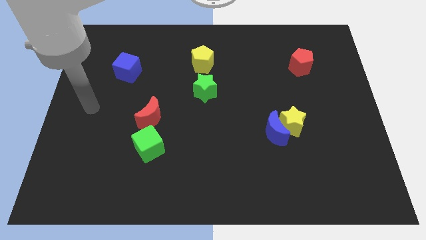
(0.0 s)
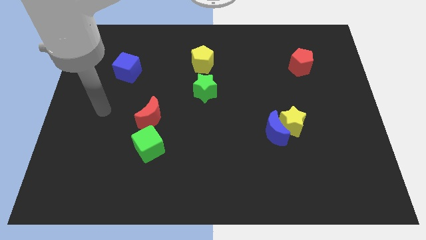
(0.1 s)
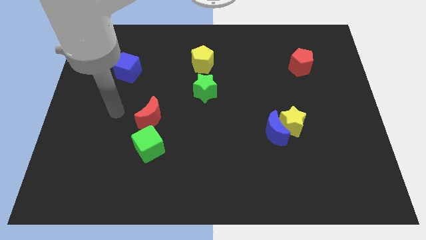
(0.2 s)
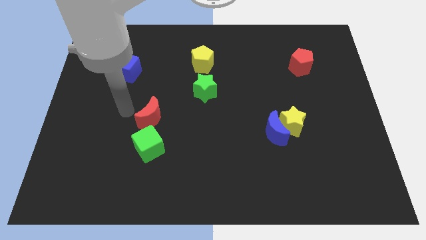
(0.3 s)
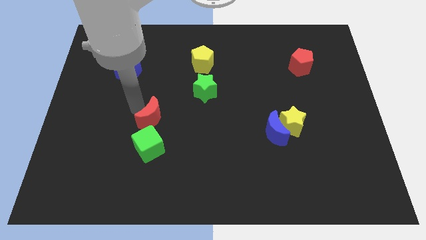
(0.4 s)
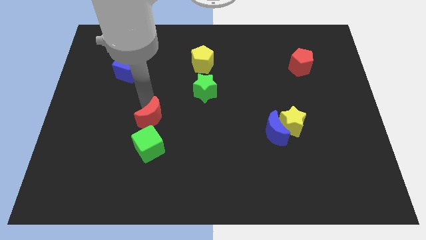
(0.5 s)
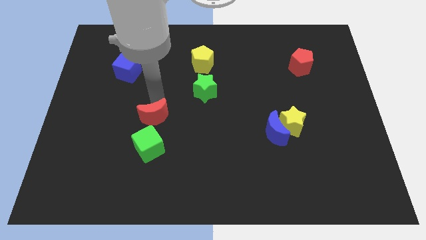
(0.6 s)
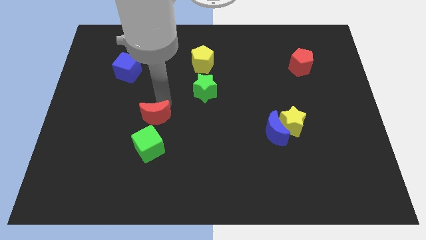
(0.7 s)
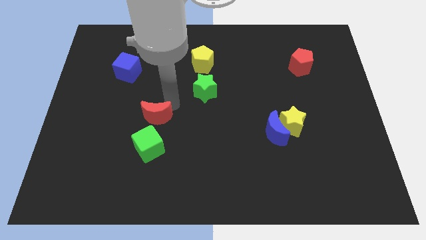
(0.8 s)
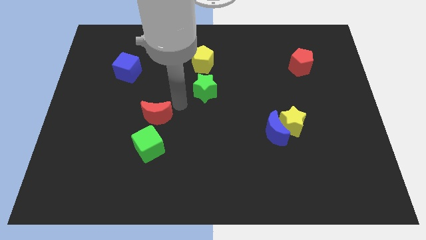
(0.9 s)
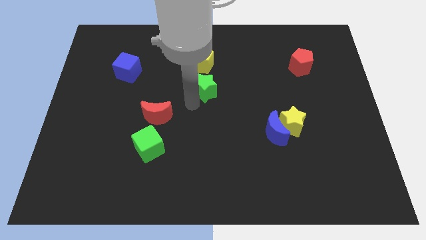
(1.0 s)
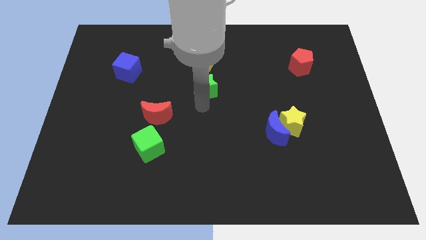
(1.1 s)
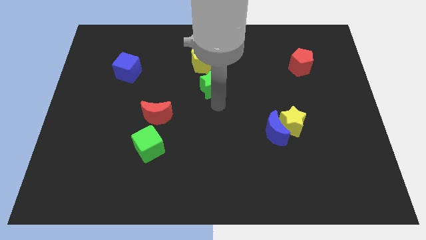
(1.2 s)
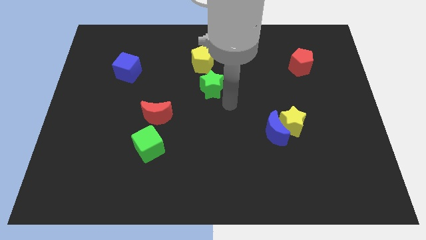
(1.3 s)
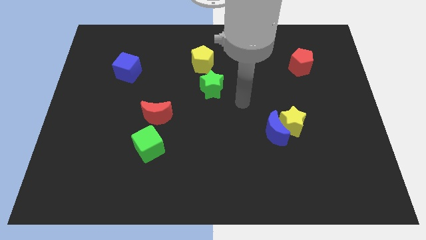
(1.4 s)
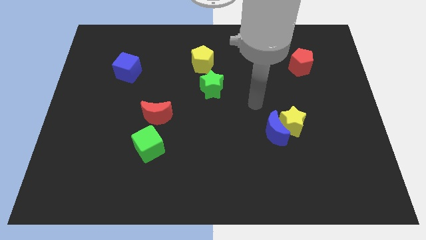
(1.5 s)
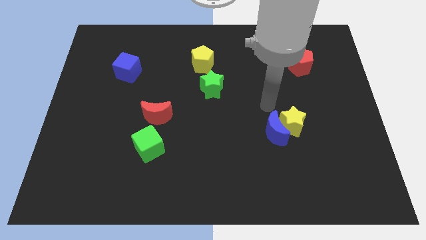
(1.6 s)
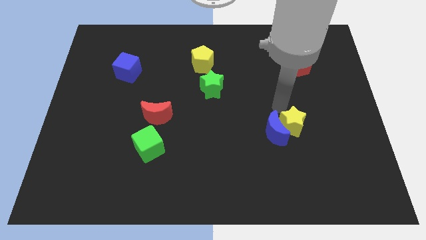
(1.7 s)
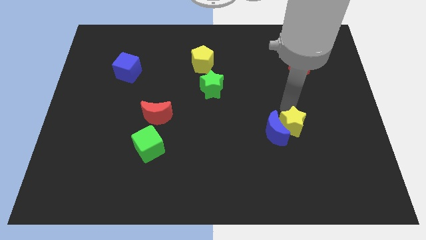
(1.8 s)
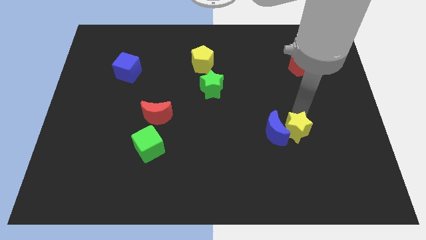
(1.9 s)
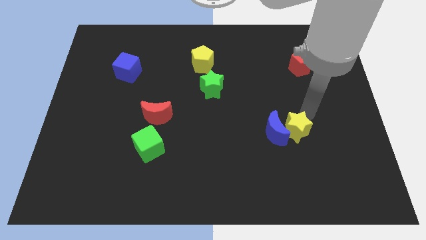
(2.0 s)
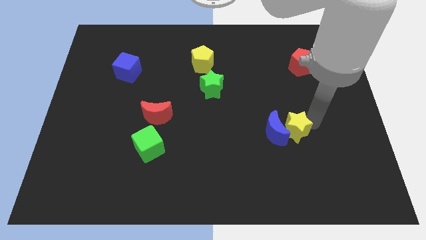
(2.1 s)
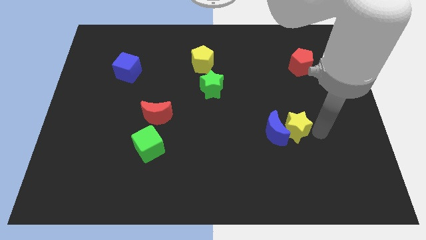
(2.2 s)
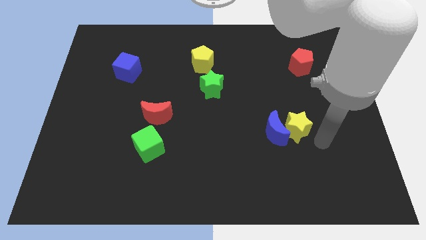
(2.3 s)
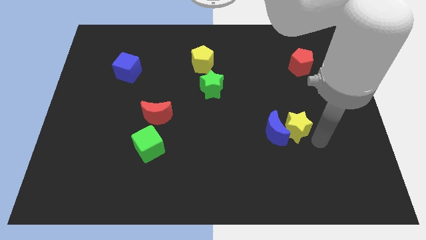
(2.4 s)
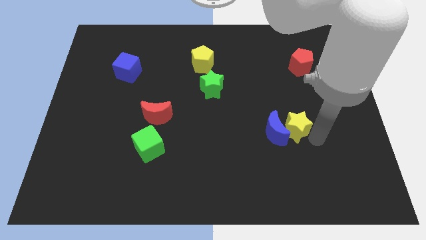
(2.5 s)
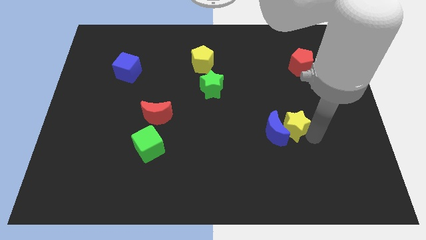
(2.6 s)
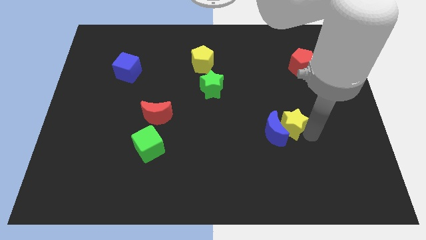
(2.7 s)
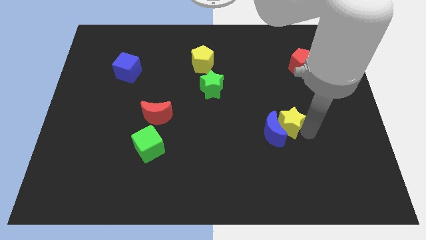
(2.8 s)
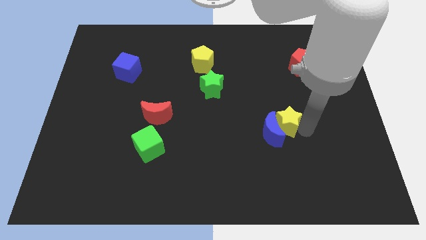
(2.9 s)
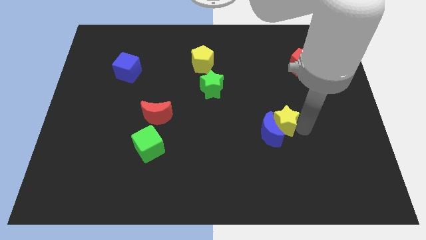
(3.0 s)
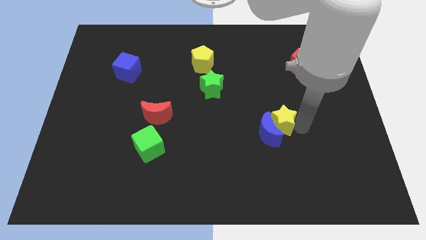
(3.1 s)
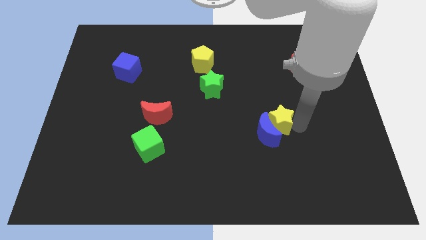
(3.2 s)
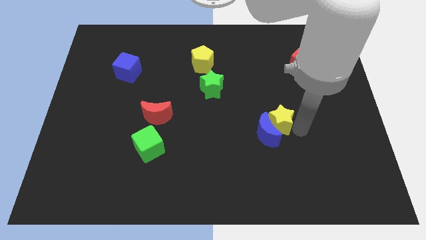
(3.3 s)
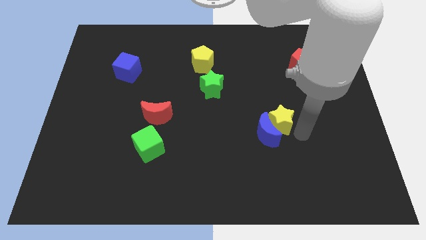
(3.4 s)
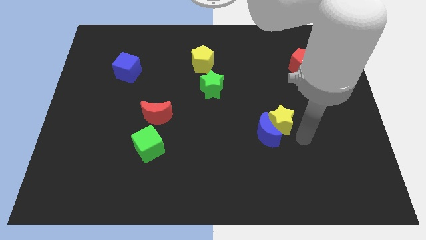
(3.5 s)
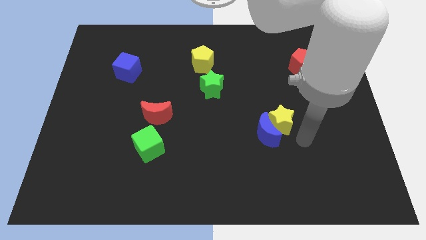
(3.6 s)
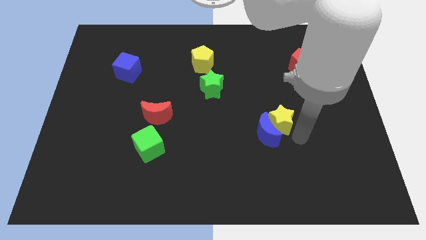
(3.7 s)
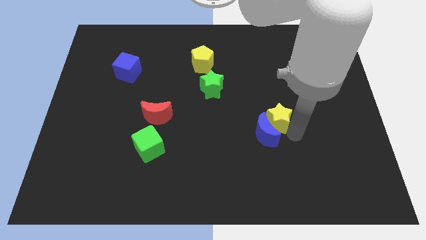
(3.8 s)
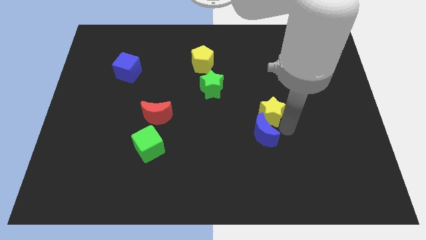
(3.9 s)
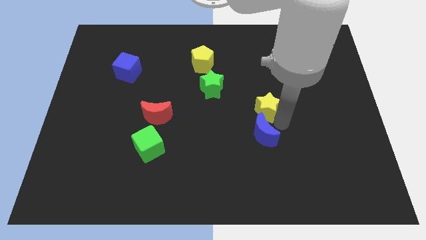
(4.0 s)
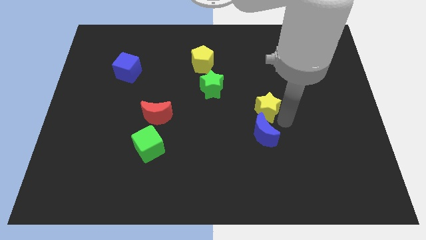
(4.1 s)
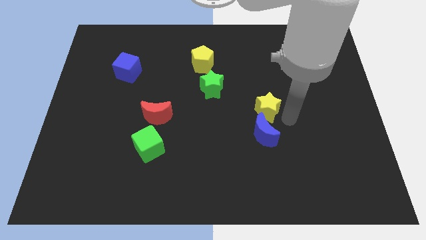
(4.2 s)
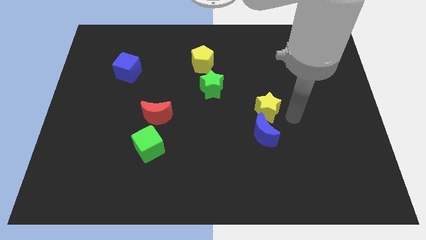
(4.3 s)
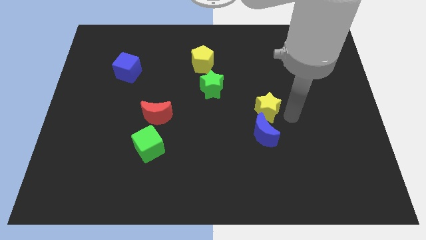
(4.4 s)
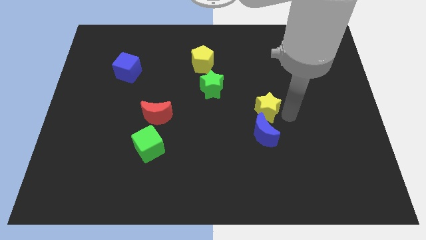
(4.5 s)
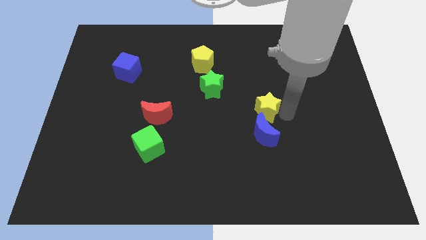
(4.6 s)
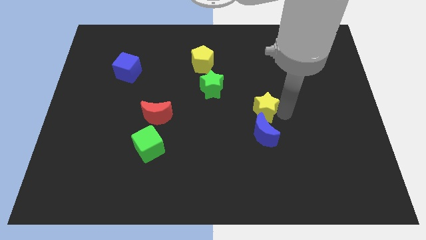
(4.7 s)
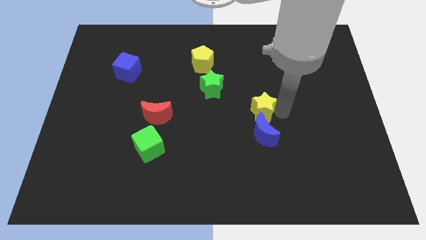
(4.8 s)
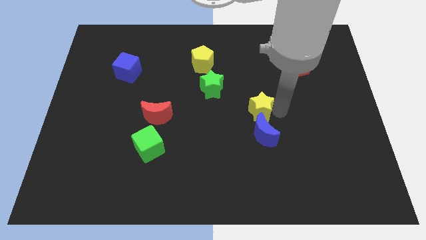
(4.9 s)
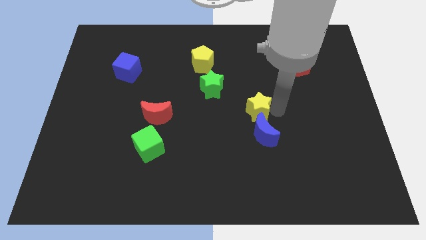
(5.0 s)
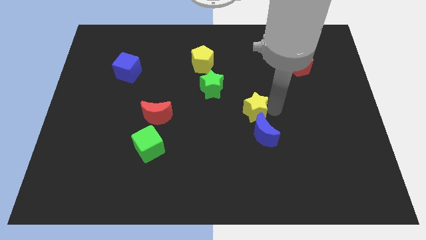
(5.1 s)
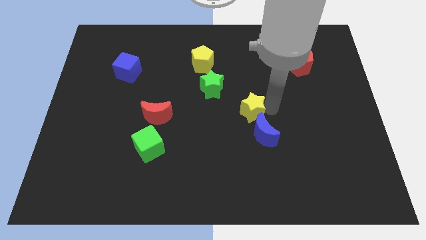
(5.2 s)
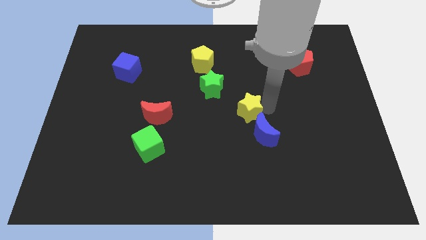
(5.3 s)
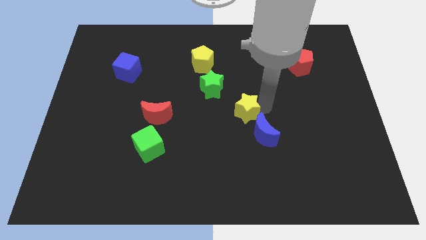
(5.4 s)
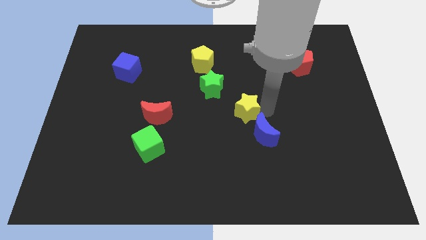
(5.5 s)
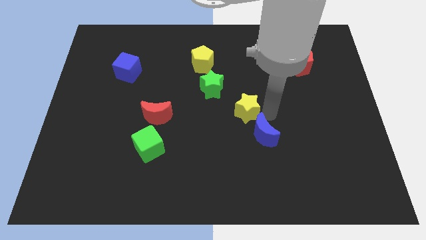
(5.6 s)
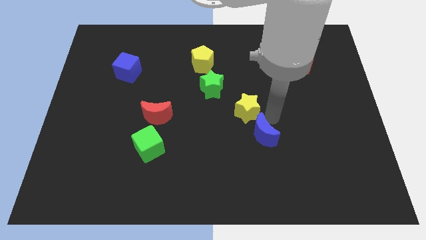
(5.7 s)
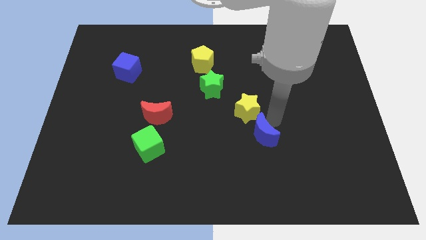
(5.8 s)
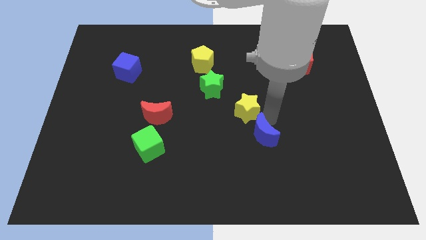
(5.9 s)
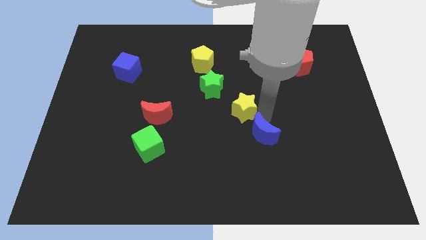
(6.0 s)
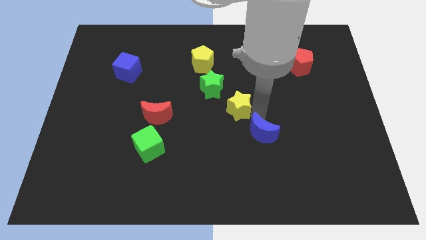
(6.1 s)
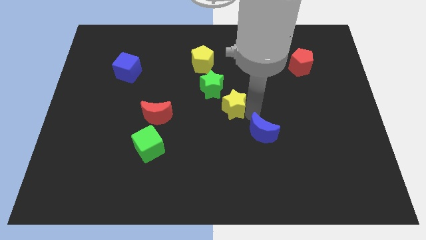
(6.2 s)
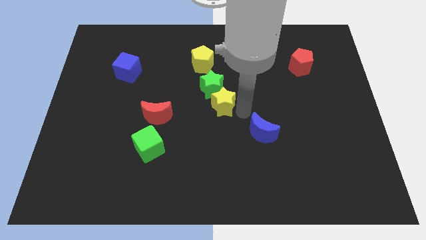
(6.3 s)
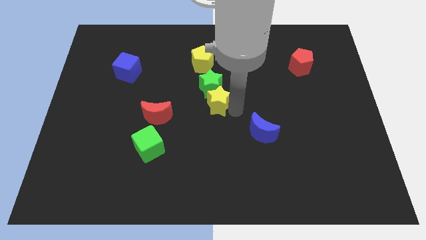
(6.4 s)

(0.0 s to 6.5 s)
slide the yellow star below the yellow pentagon

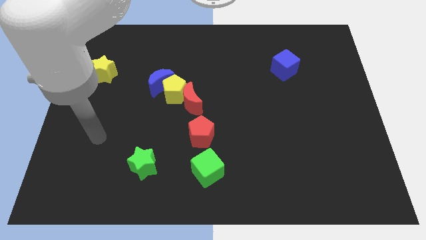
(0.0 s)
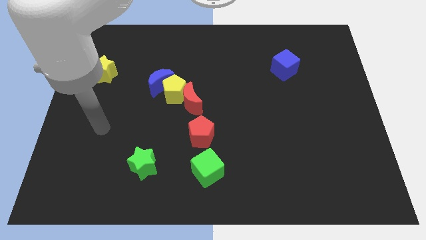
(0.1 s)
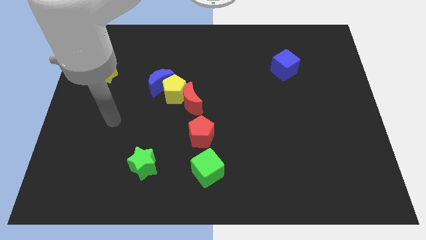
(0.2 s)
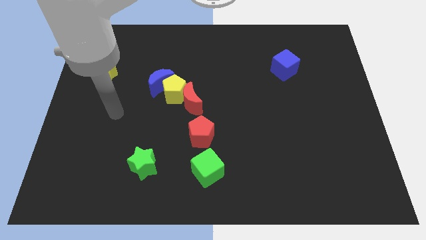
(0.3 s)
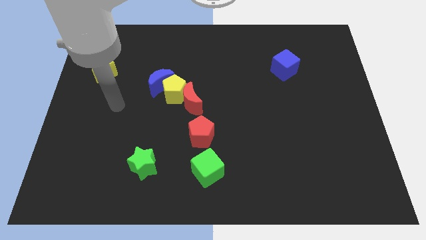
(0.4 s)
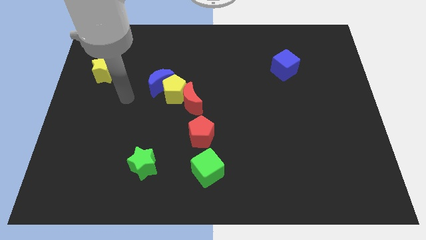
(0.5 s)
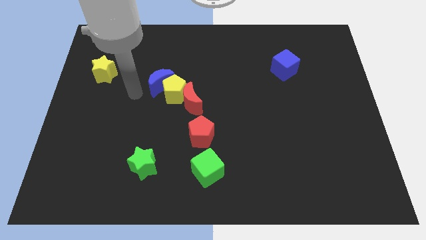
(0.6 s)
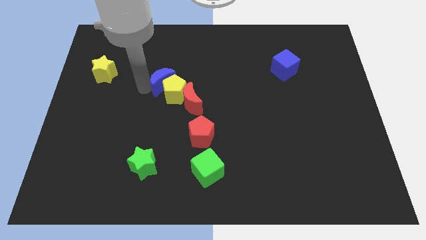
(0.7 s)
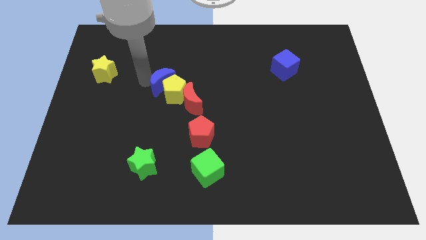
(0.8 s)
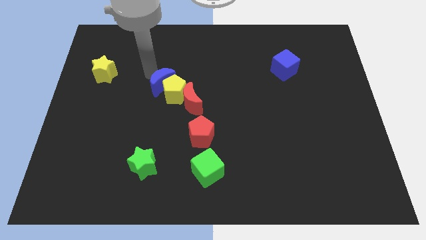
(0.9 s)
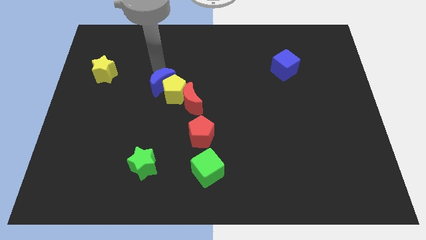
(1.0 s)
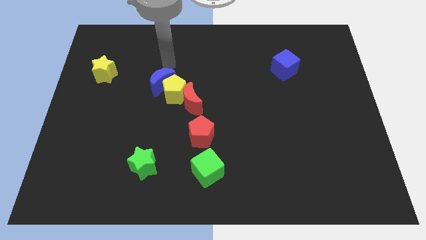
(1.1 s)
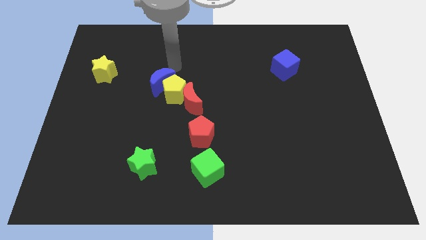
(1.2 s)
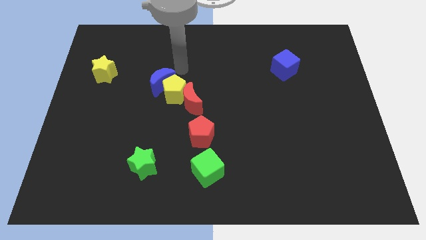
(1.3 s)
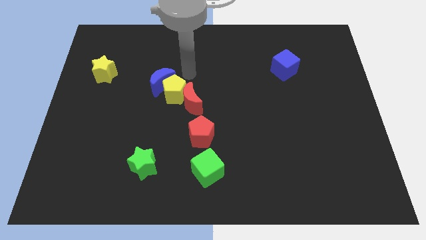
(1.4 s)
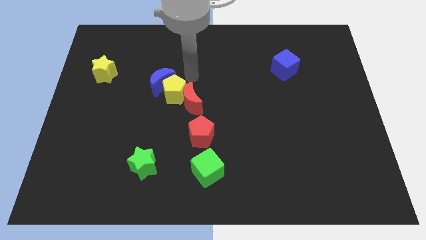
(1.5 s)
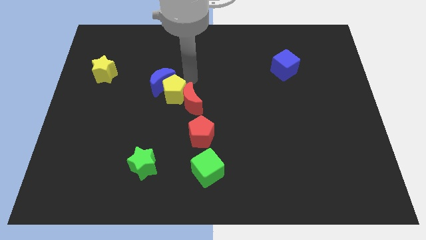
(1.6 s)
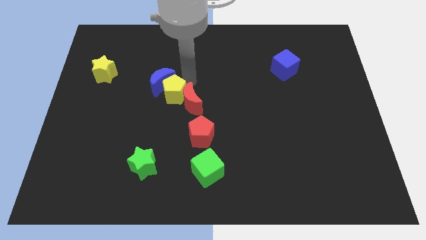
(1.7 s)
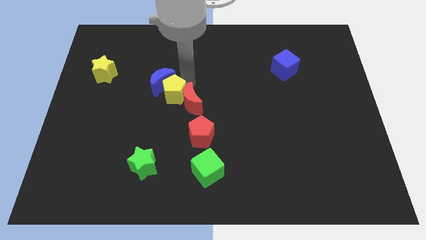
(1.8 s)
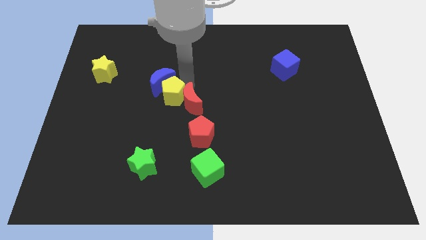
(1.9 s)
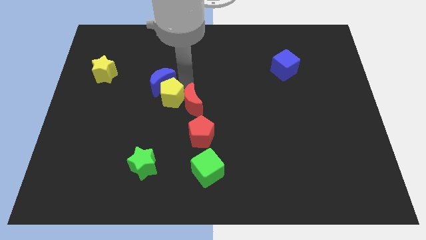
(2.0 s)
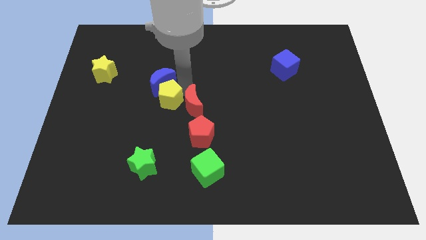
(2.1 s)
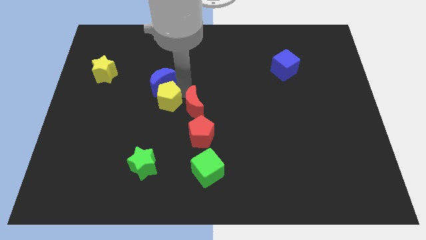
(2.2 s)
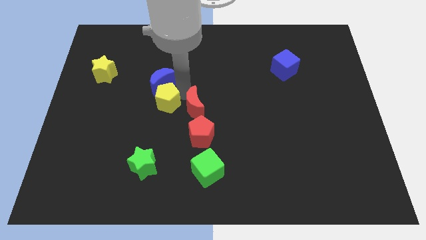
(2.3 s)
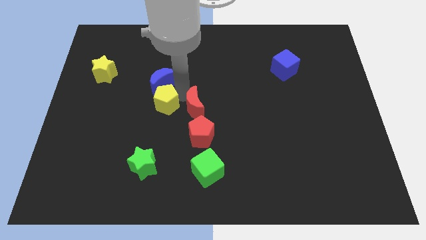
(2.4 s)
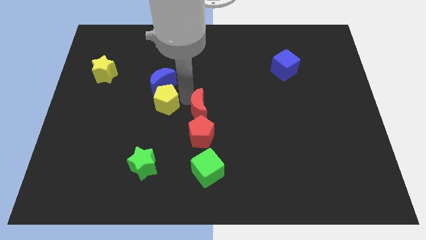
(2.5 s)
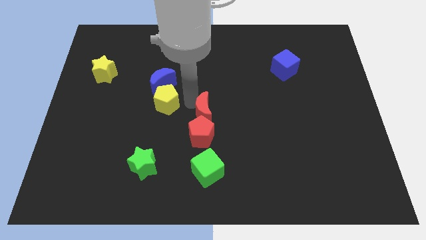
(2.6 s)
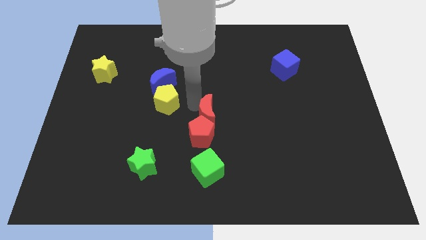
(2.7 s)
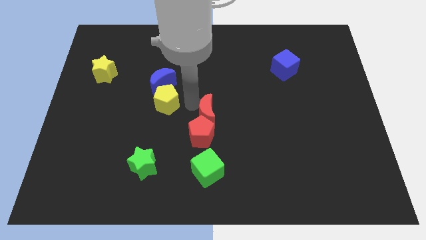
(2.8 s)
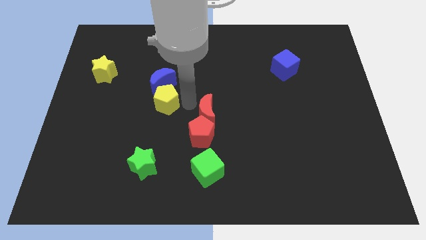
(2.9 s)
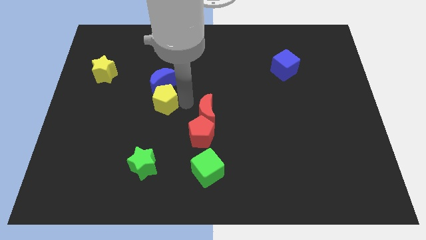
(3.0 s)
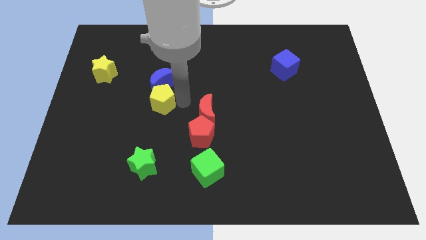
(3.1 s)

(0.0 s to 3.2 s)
push the yellow pentagon to the bottom left of the blue moon
